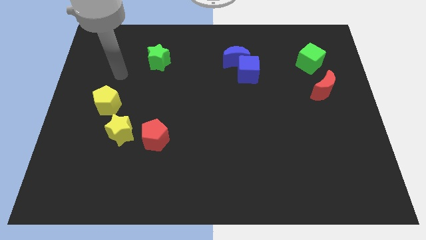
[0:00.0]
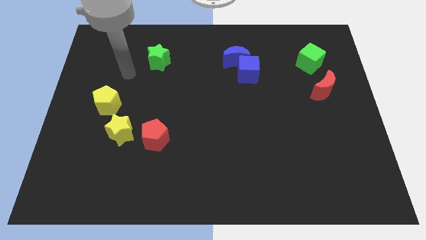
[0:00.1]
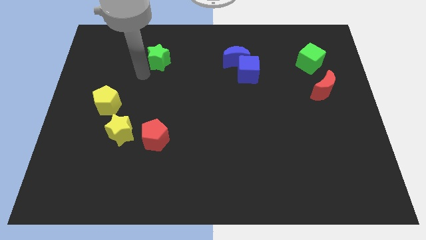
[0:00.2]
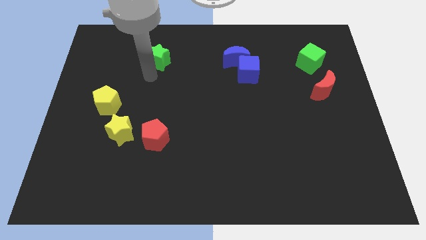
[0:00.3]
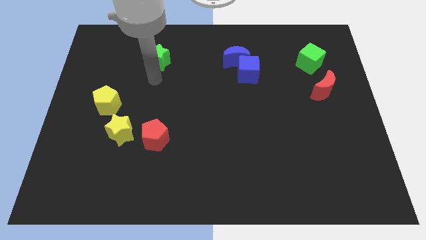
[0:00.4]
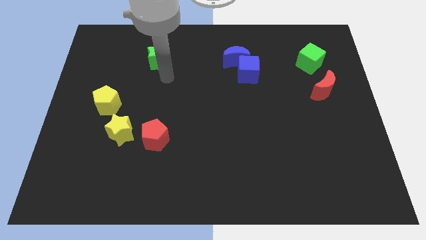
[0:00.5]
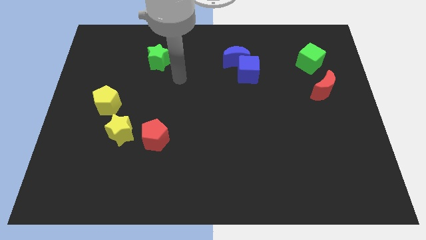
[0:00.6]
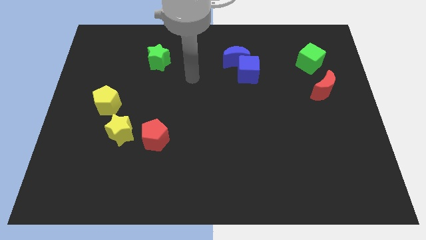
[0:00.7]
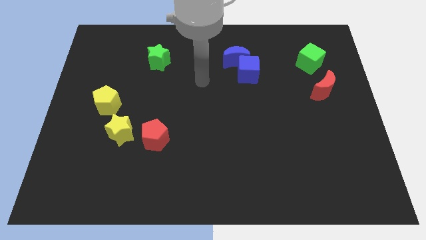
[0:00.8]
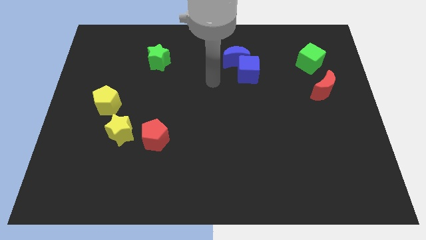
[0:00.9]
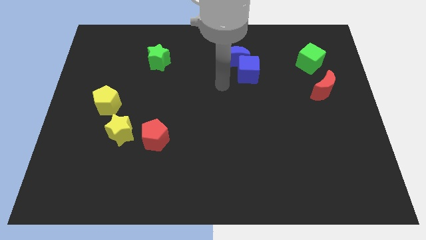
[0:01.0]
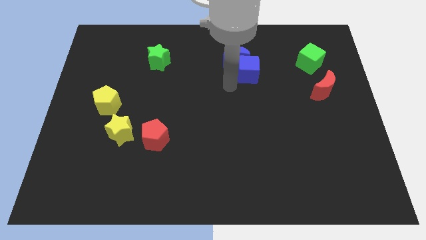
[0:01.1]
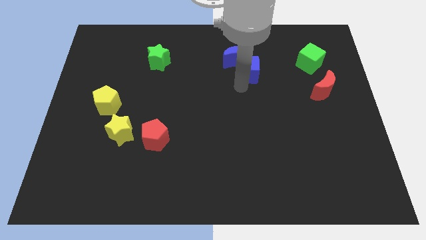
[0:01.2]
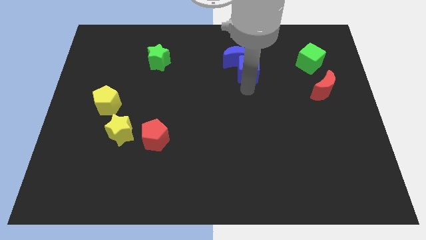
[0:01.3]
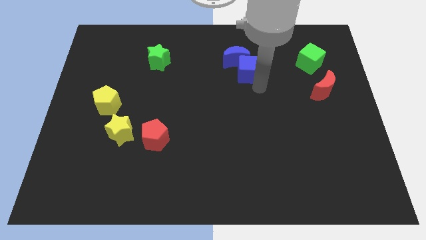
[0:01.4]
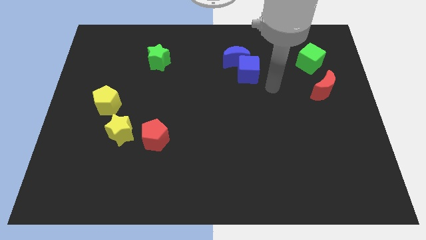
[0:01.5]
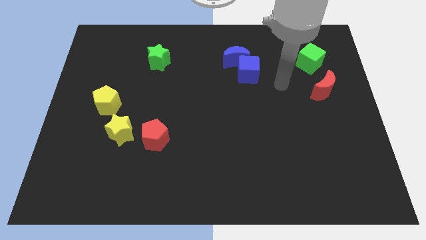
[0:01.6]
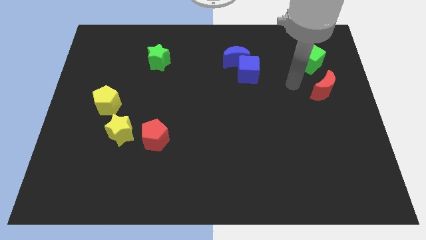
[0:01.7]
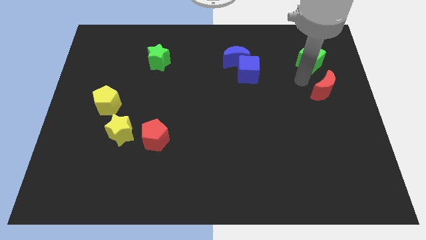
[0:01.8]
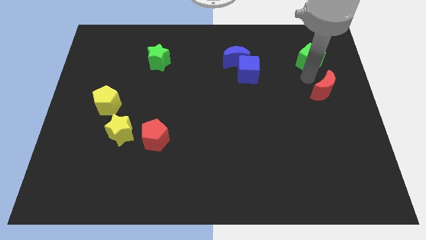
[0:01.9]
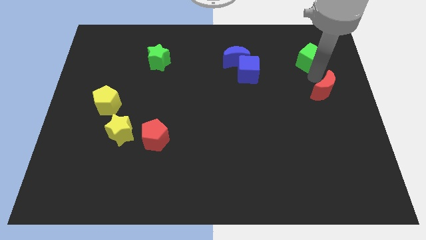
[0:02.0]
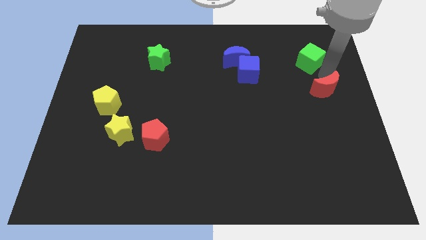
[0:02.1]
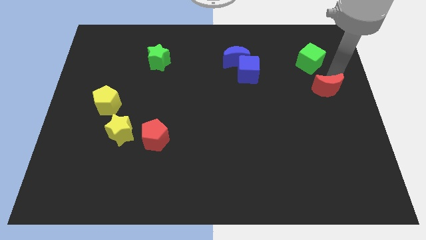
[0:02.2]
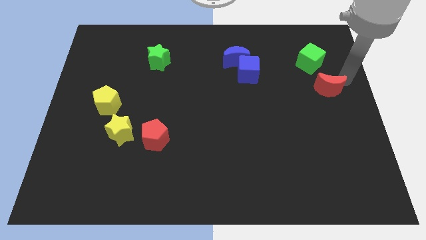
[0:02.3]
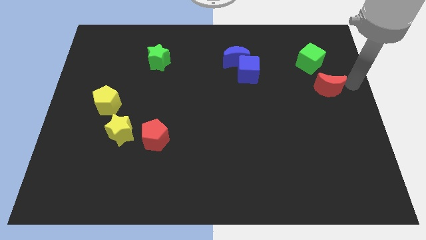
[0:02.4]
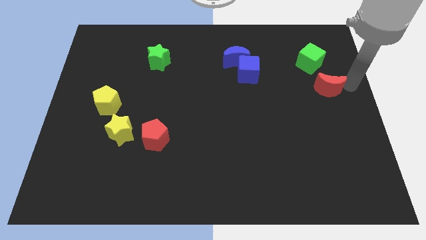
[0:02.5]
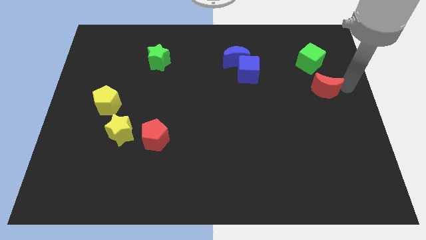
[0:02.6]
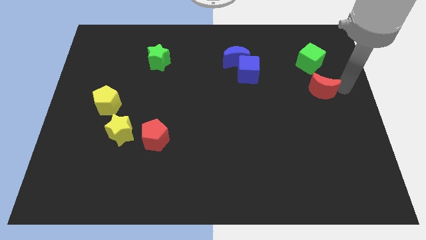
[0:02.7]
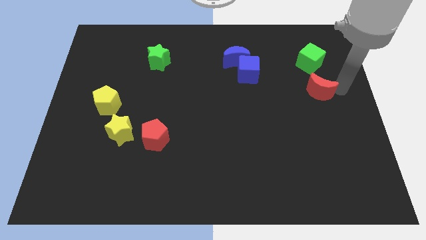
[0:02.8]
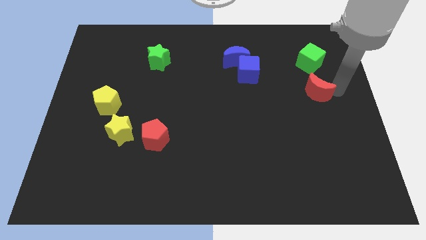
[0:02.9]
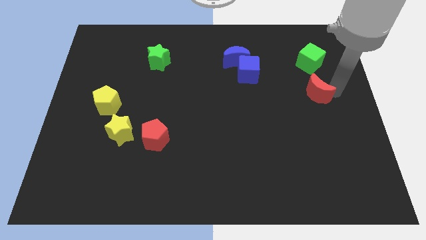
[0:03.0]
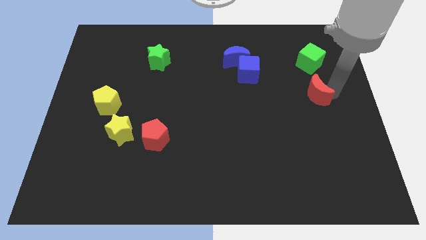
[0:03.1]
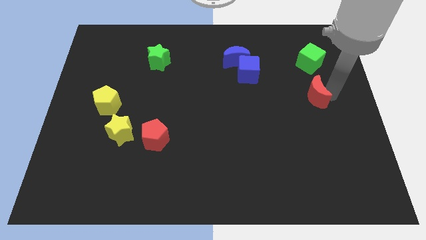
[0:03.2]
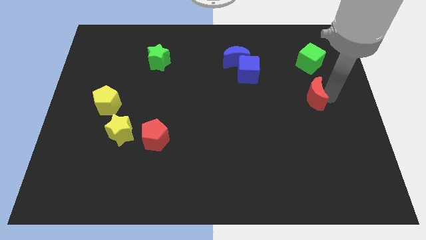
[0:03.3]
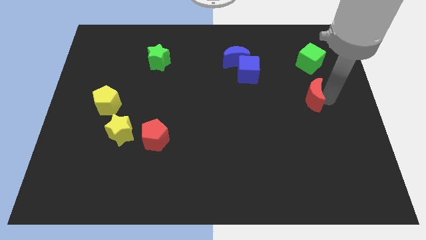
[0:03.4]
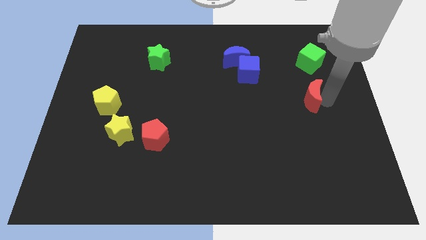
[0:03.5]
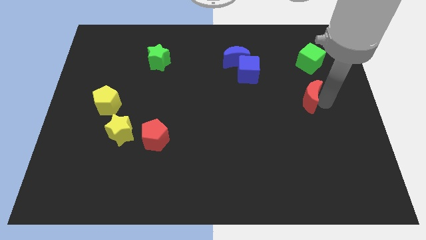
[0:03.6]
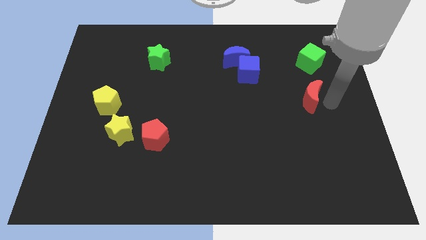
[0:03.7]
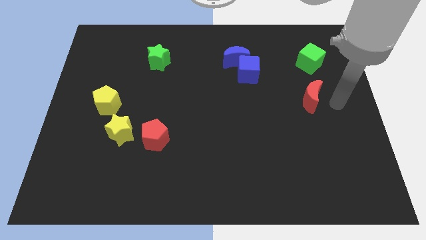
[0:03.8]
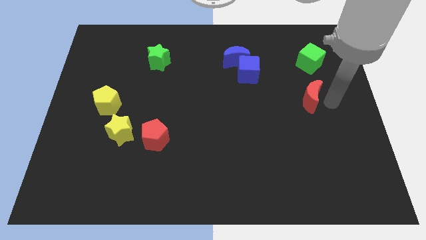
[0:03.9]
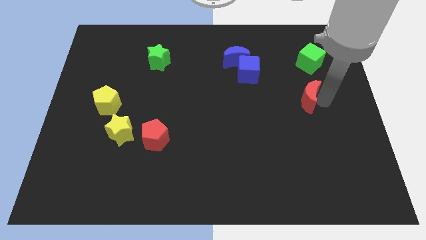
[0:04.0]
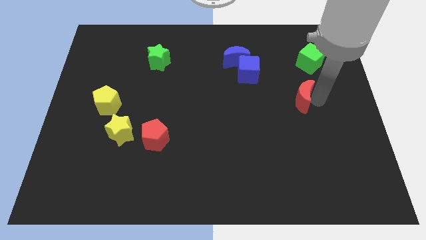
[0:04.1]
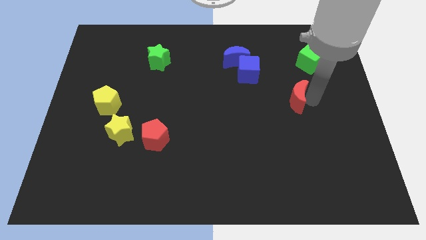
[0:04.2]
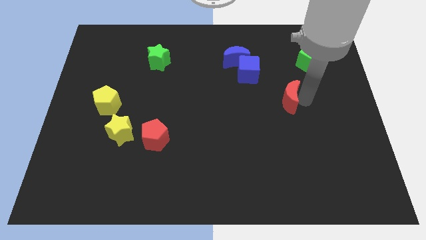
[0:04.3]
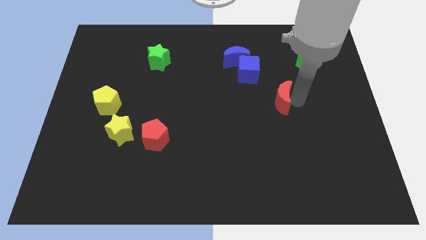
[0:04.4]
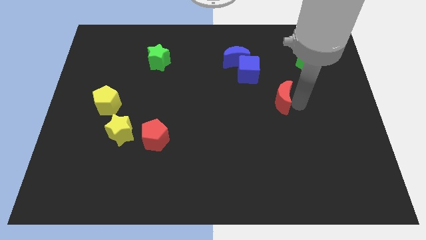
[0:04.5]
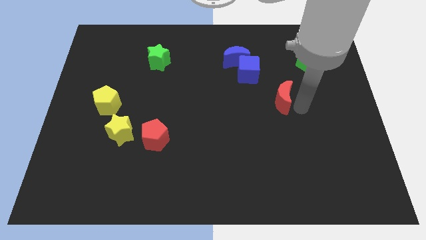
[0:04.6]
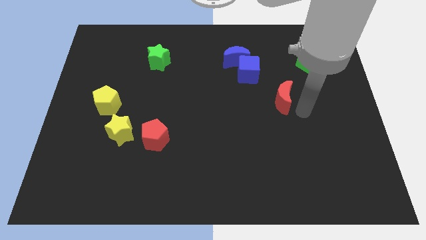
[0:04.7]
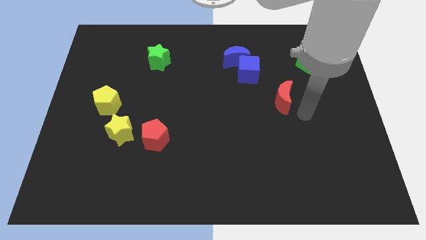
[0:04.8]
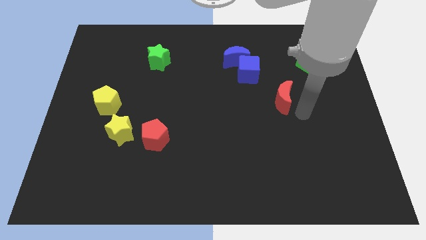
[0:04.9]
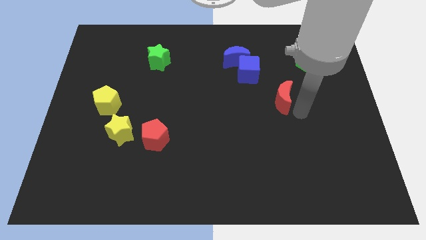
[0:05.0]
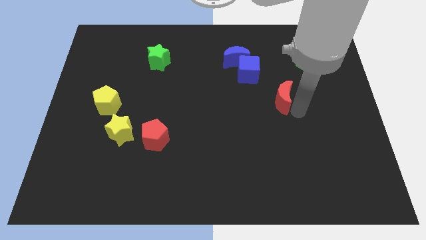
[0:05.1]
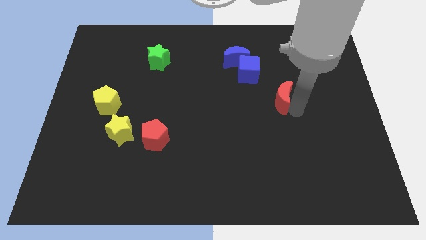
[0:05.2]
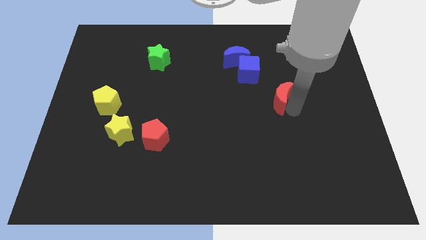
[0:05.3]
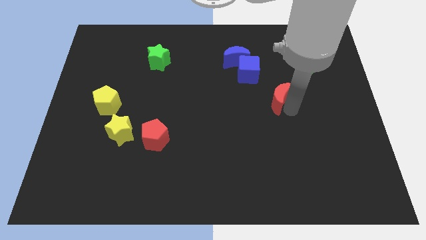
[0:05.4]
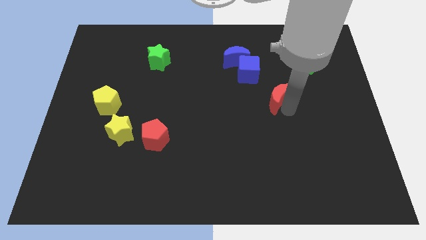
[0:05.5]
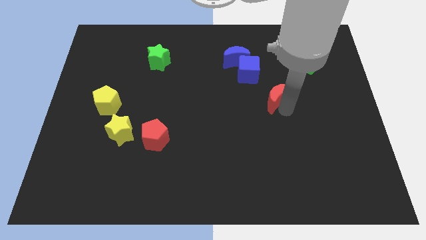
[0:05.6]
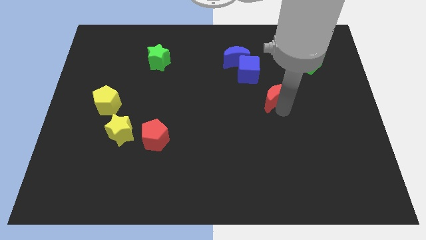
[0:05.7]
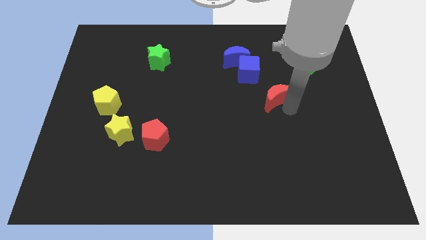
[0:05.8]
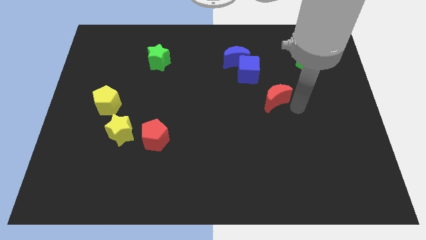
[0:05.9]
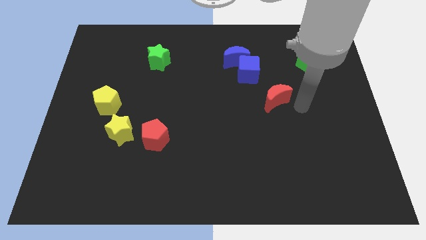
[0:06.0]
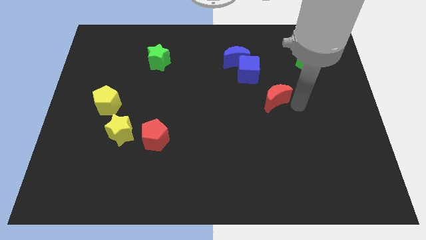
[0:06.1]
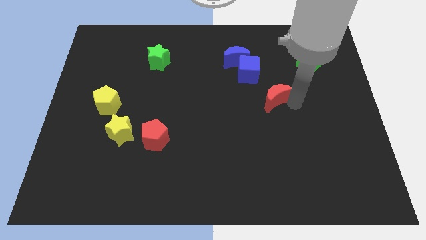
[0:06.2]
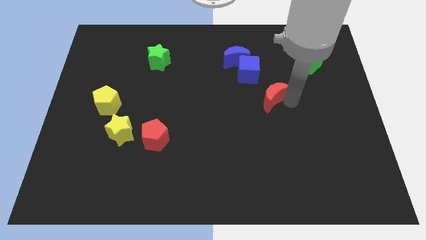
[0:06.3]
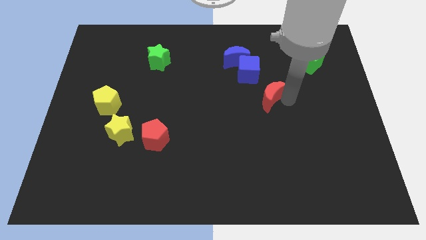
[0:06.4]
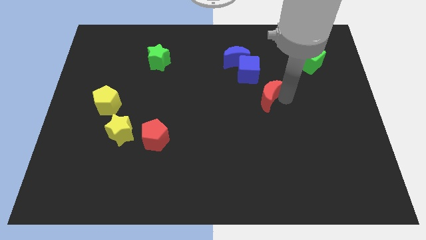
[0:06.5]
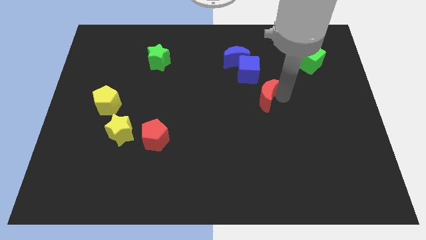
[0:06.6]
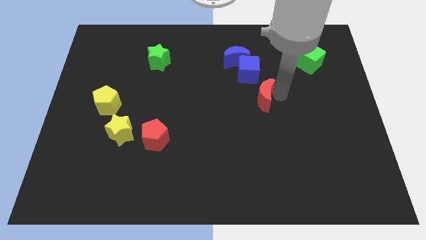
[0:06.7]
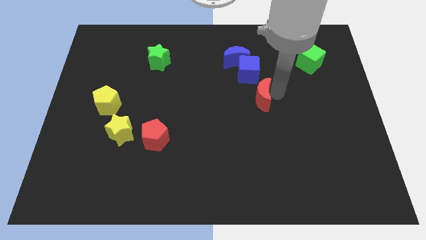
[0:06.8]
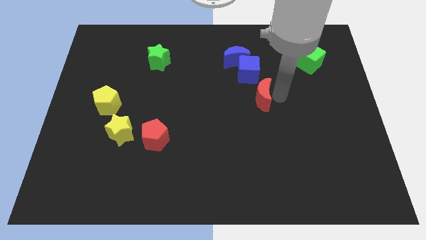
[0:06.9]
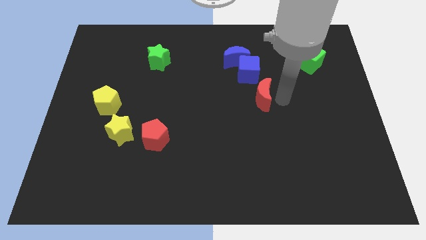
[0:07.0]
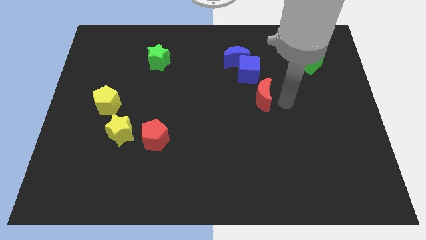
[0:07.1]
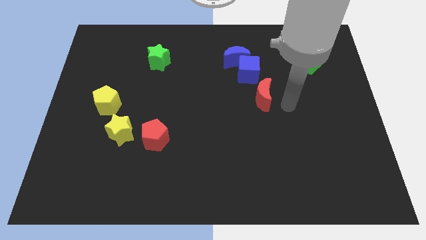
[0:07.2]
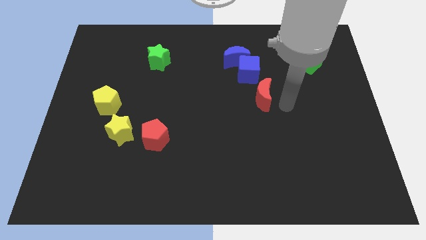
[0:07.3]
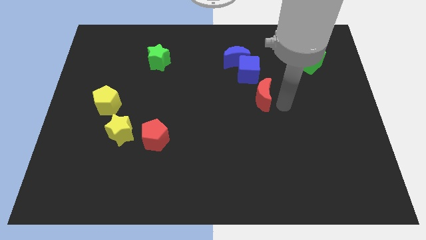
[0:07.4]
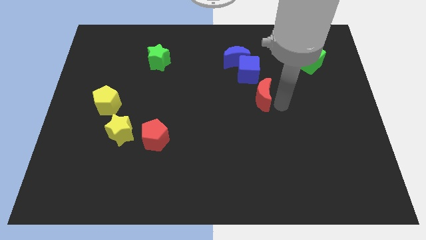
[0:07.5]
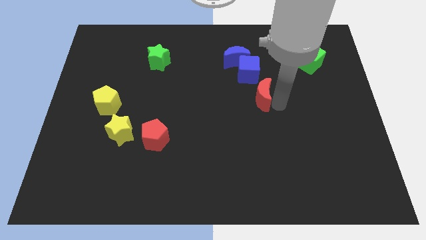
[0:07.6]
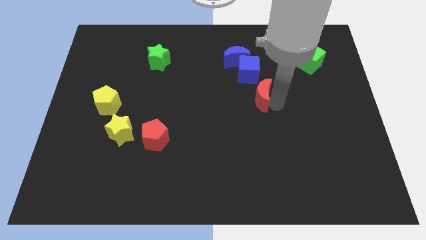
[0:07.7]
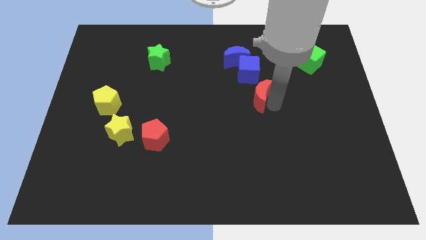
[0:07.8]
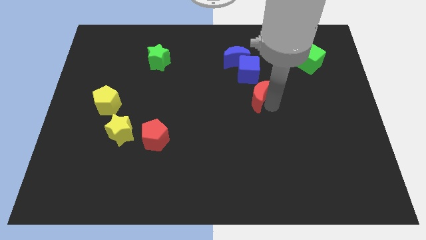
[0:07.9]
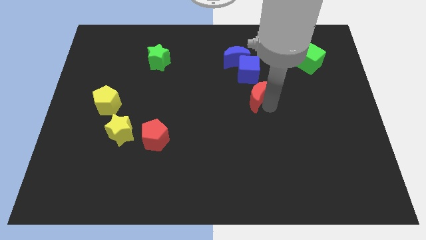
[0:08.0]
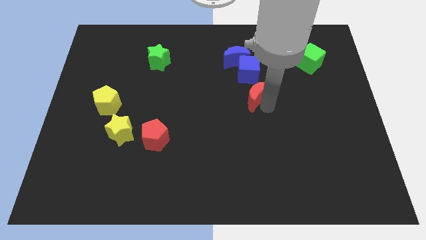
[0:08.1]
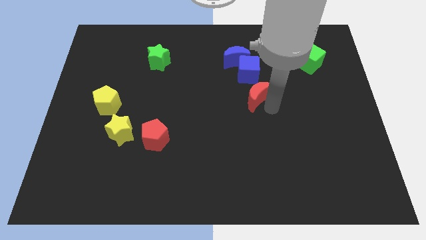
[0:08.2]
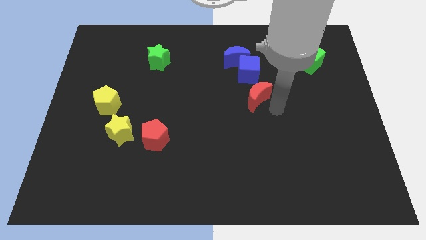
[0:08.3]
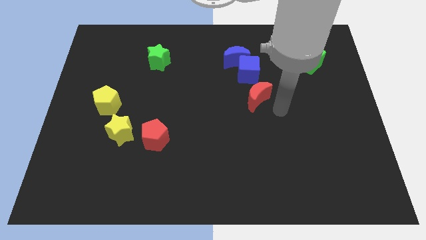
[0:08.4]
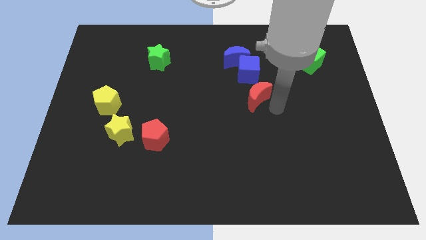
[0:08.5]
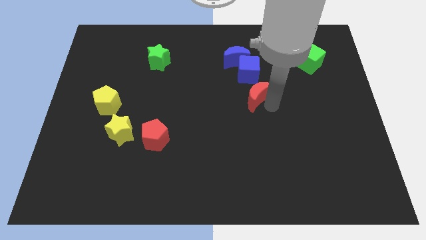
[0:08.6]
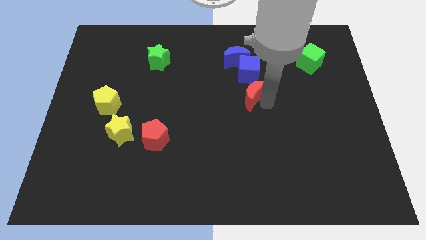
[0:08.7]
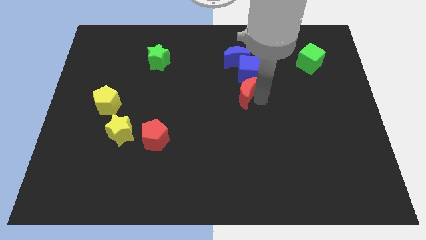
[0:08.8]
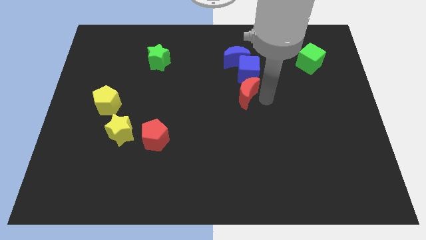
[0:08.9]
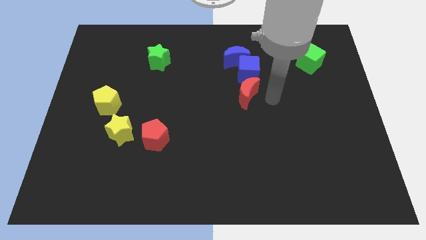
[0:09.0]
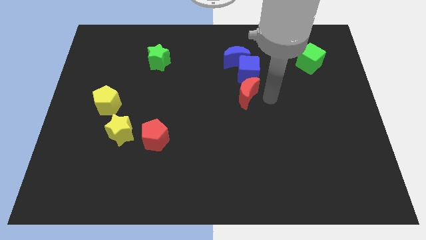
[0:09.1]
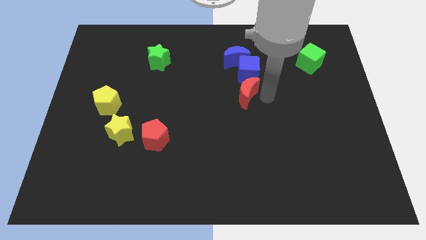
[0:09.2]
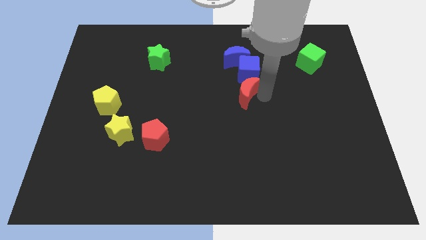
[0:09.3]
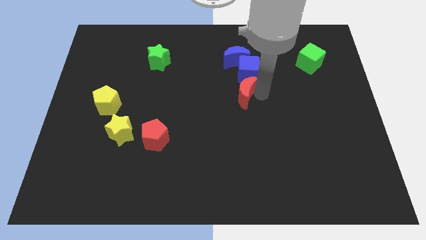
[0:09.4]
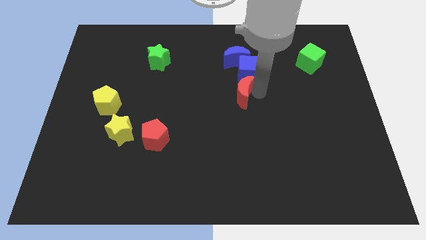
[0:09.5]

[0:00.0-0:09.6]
slide the red moon to the left
